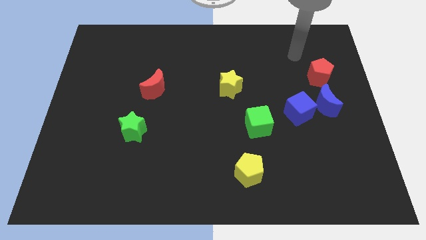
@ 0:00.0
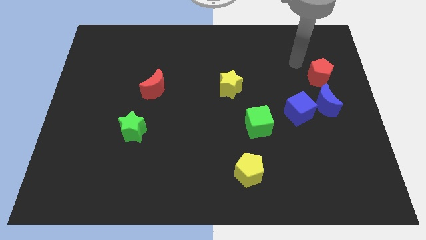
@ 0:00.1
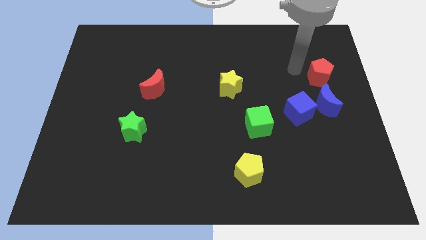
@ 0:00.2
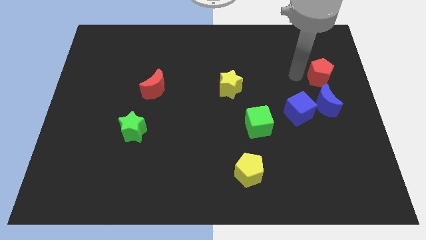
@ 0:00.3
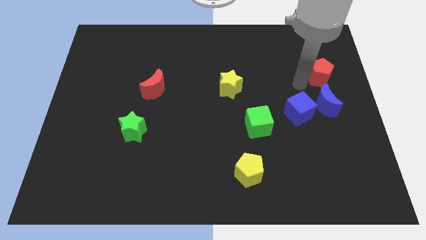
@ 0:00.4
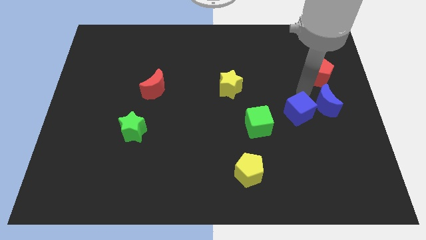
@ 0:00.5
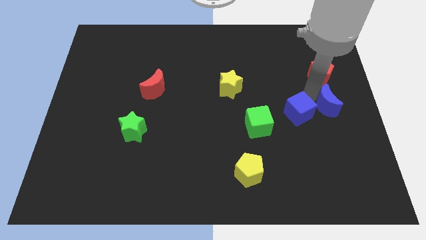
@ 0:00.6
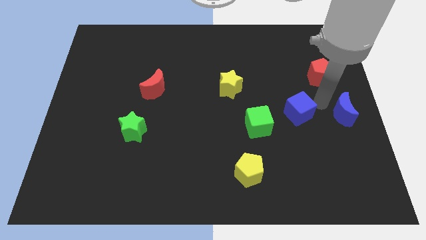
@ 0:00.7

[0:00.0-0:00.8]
separate the blue cube from the blue moon

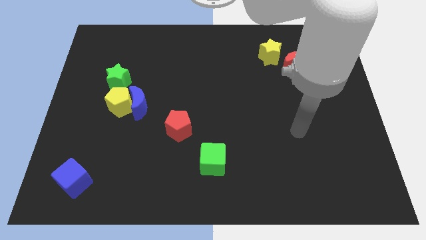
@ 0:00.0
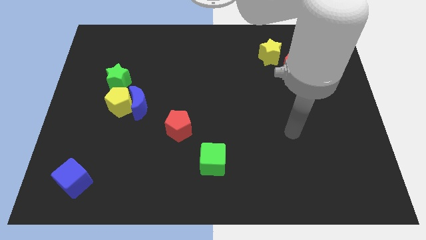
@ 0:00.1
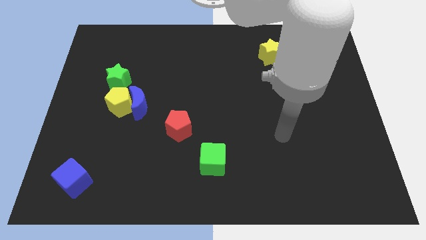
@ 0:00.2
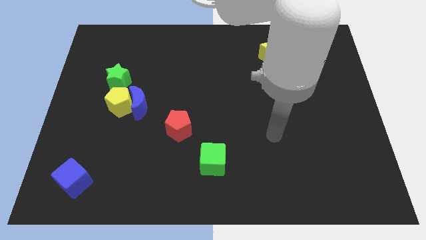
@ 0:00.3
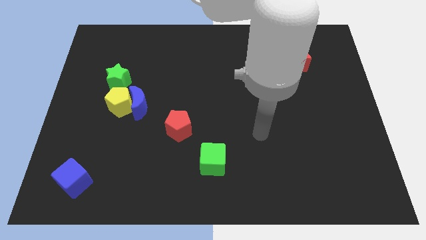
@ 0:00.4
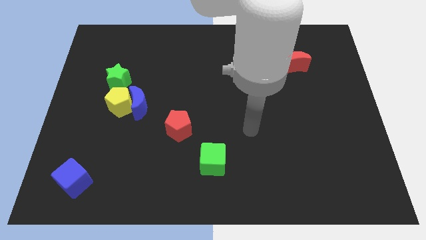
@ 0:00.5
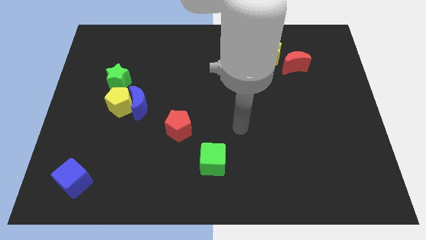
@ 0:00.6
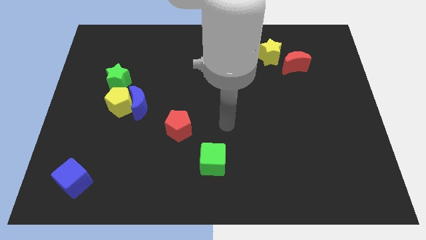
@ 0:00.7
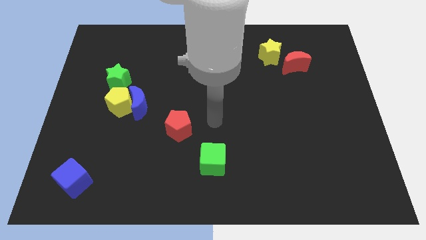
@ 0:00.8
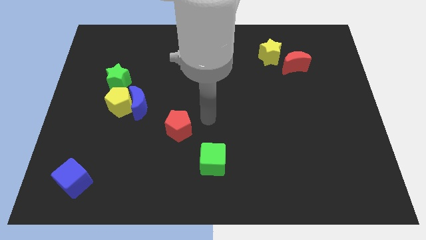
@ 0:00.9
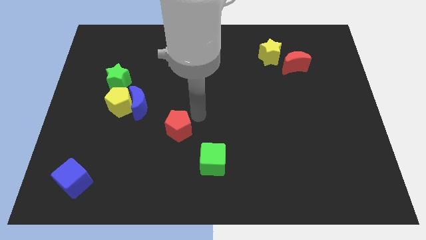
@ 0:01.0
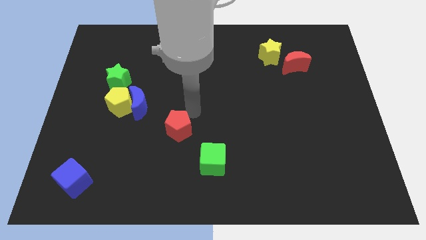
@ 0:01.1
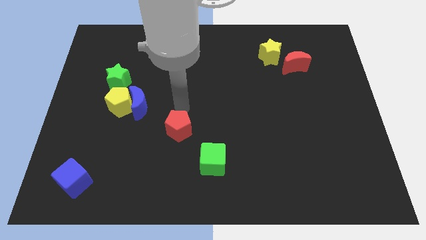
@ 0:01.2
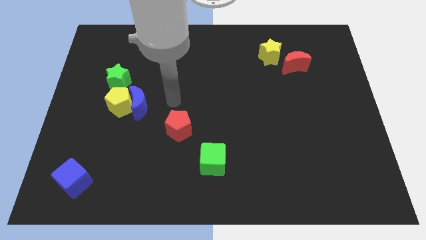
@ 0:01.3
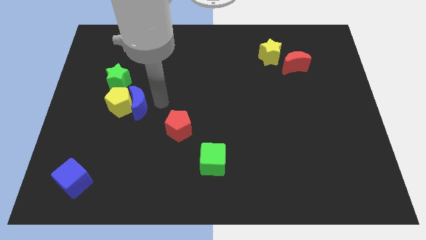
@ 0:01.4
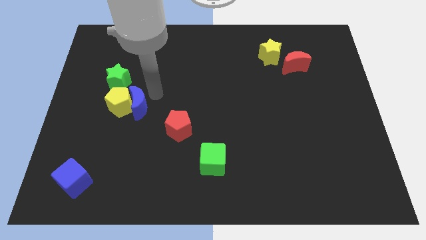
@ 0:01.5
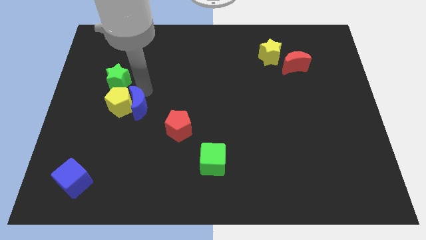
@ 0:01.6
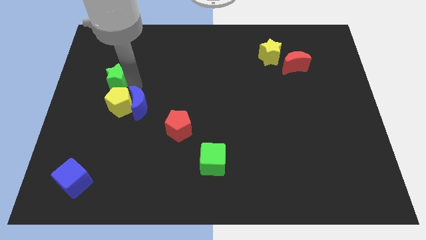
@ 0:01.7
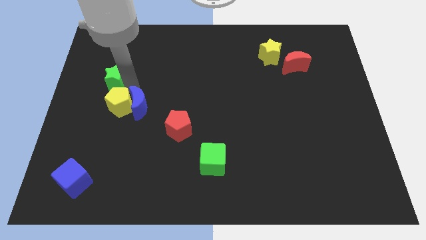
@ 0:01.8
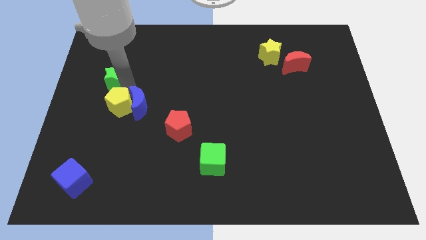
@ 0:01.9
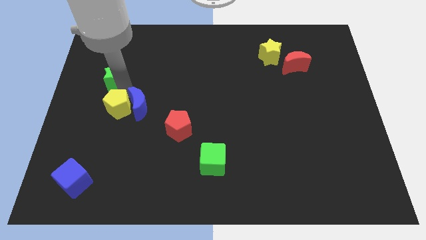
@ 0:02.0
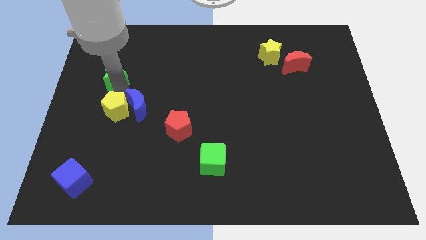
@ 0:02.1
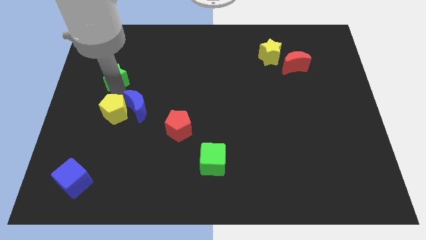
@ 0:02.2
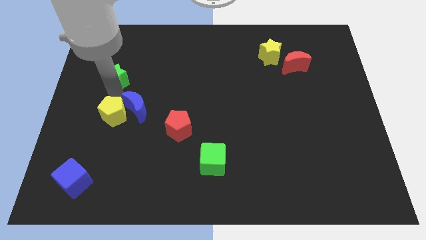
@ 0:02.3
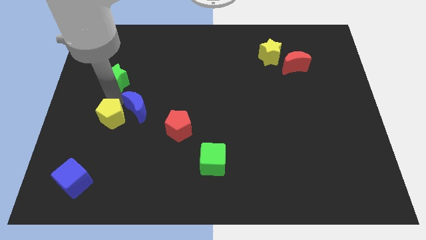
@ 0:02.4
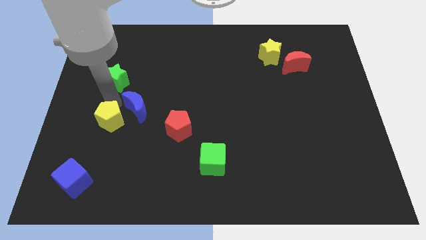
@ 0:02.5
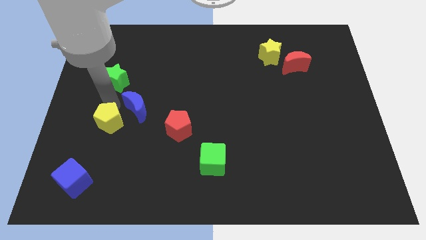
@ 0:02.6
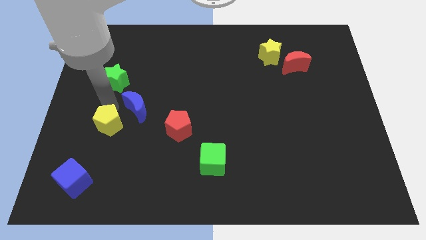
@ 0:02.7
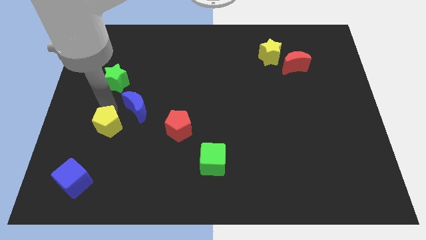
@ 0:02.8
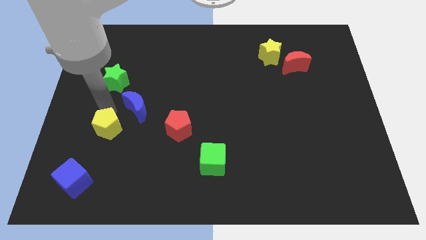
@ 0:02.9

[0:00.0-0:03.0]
separate the yellow pentagon from the blue moon and green star

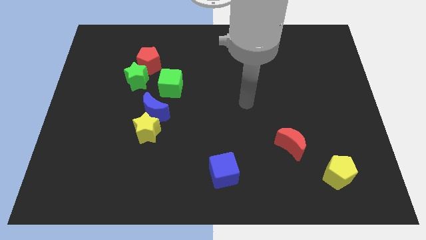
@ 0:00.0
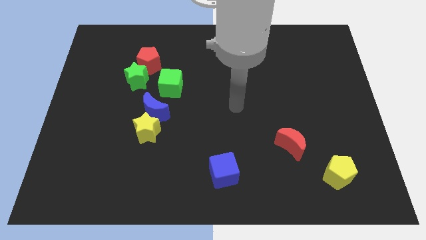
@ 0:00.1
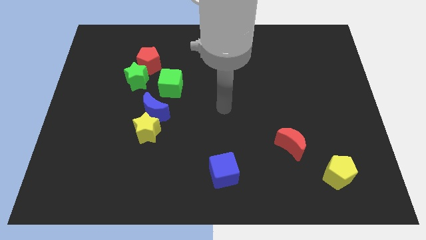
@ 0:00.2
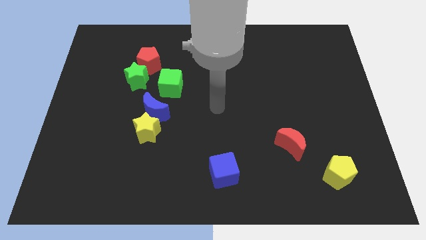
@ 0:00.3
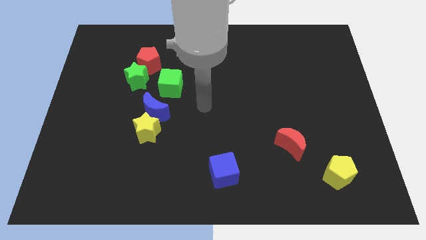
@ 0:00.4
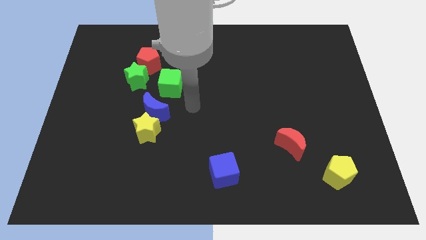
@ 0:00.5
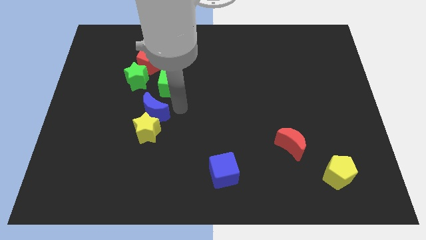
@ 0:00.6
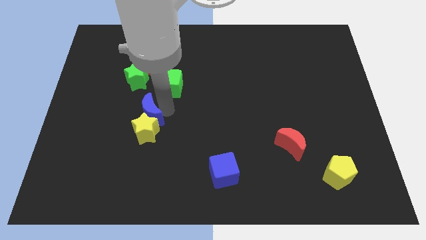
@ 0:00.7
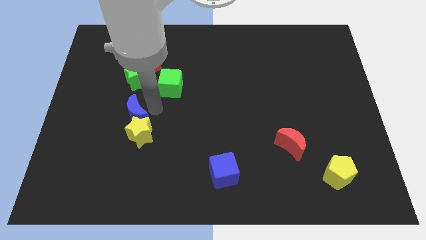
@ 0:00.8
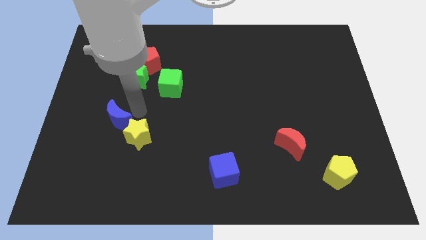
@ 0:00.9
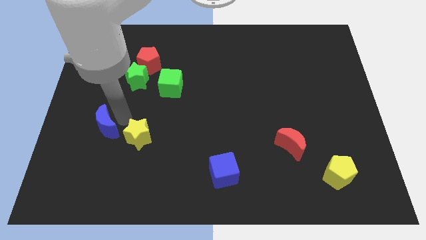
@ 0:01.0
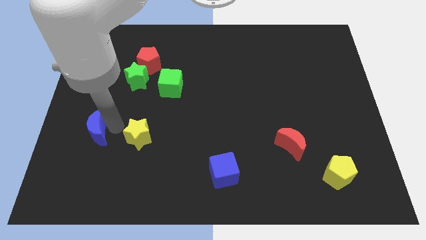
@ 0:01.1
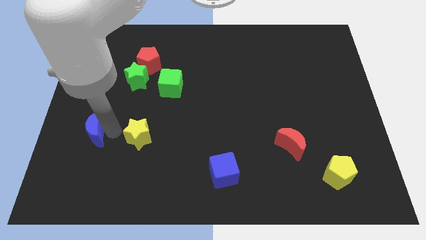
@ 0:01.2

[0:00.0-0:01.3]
separate the yellow star from the blue moon

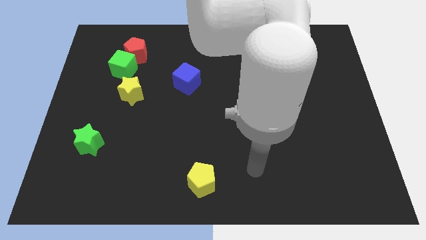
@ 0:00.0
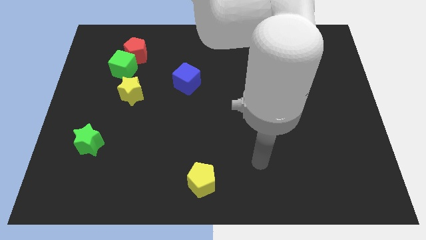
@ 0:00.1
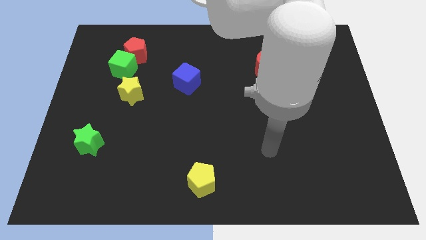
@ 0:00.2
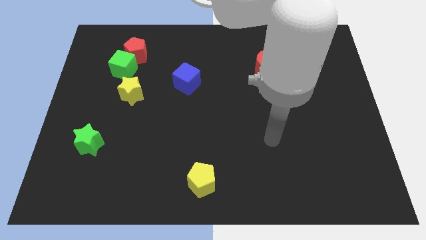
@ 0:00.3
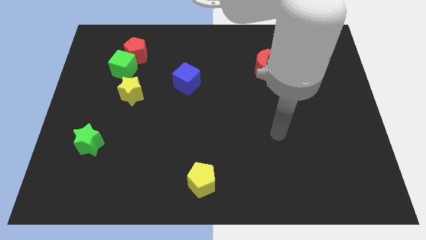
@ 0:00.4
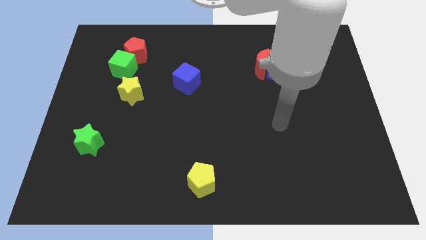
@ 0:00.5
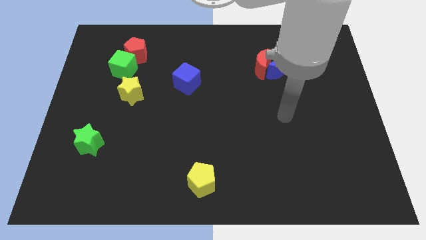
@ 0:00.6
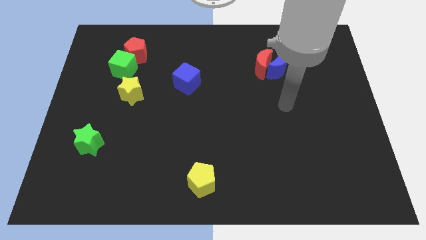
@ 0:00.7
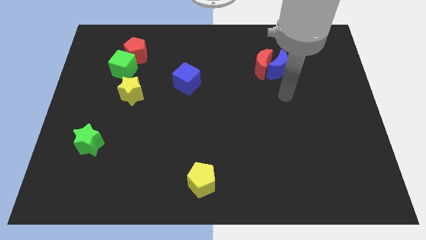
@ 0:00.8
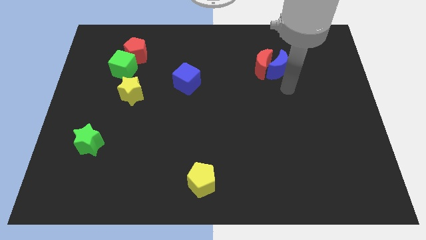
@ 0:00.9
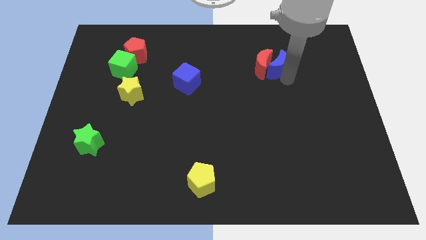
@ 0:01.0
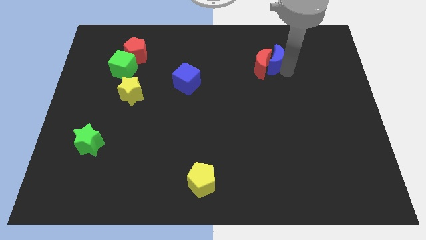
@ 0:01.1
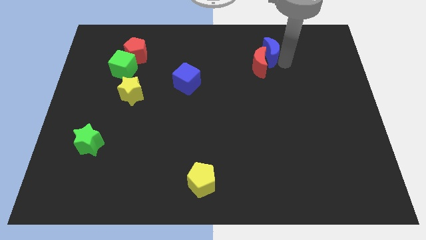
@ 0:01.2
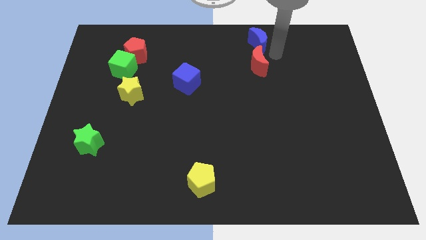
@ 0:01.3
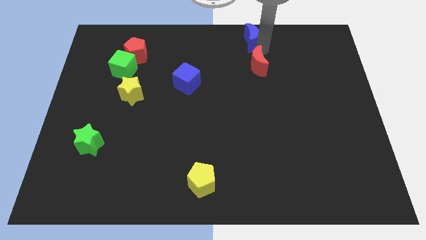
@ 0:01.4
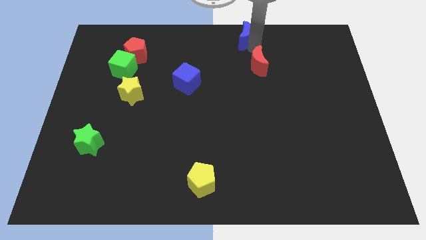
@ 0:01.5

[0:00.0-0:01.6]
move the red moon away from the blue moon

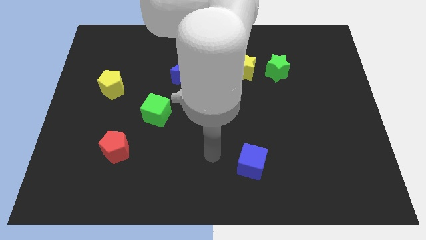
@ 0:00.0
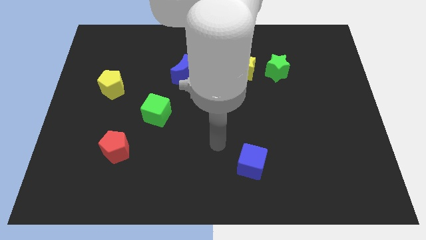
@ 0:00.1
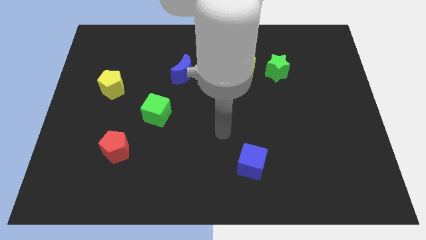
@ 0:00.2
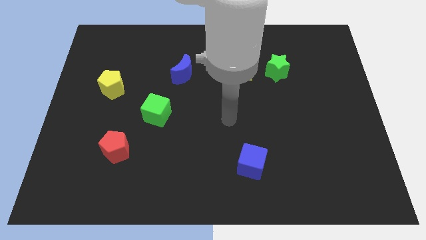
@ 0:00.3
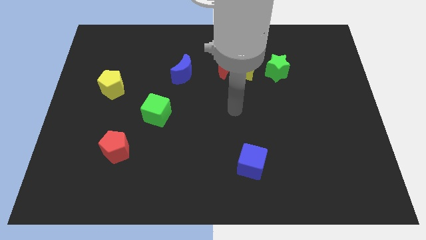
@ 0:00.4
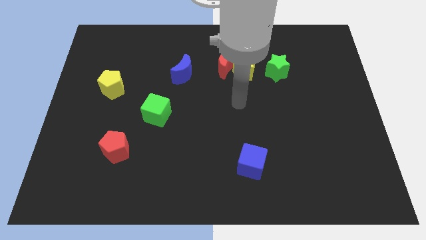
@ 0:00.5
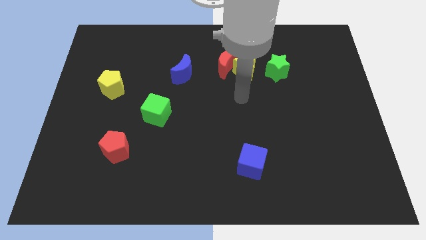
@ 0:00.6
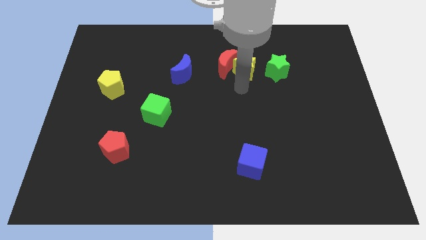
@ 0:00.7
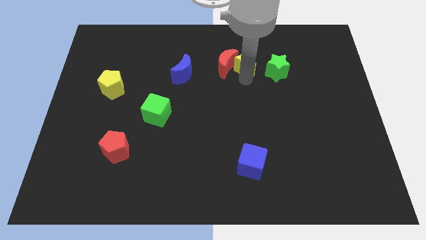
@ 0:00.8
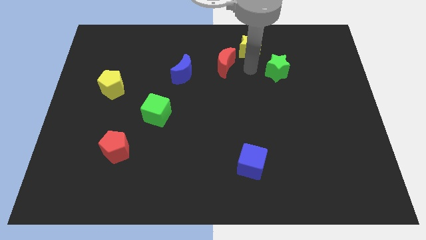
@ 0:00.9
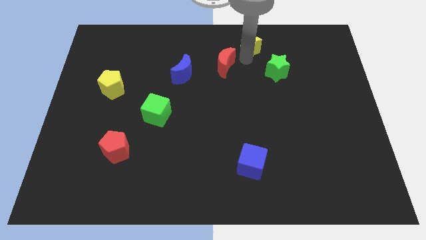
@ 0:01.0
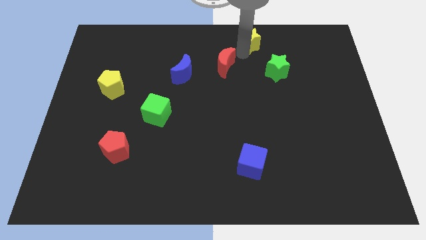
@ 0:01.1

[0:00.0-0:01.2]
pull the red moon apart from the yellow star

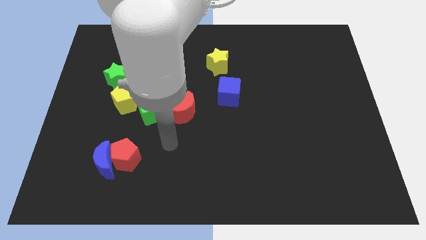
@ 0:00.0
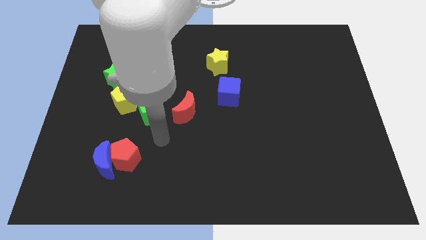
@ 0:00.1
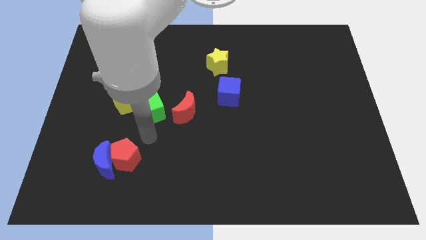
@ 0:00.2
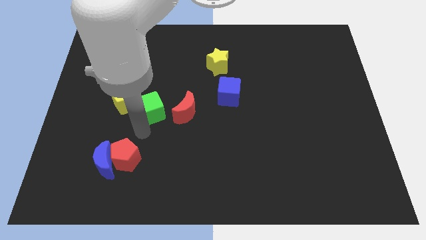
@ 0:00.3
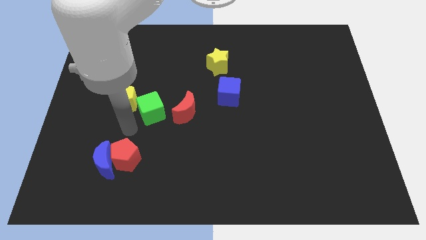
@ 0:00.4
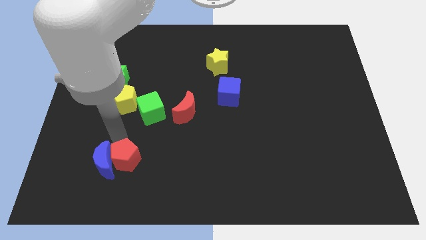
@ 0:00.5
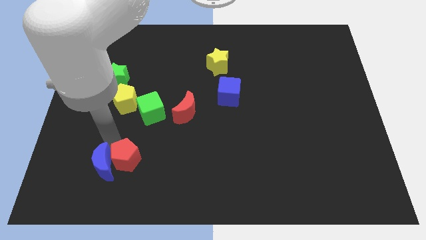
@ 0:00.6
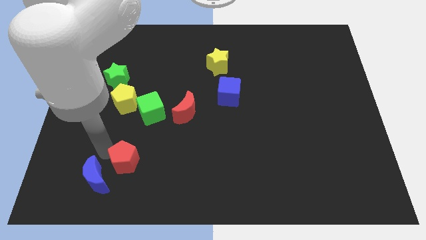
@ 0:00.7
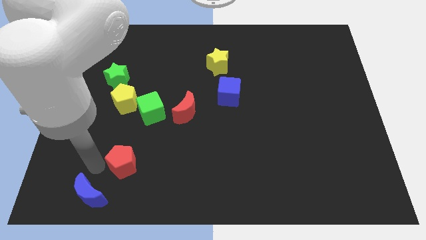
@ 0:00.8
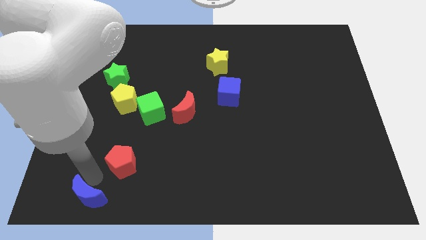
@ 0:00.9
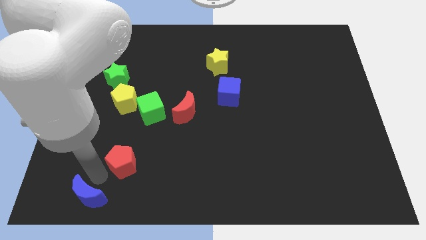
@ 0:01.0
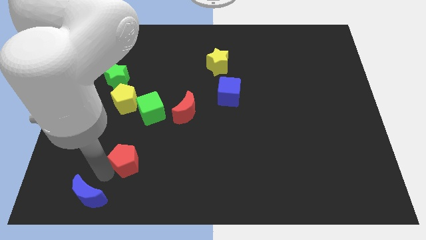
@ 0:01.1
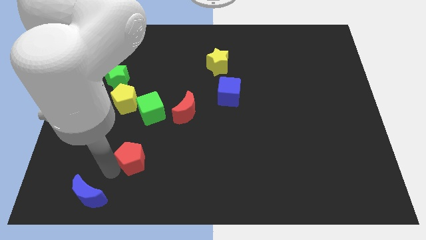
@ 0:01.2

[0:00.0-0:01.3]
separate the red pentagon from the blue moon
